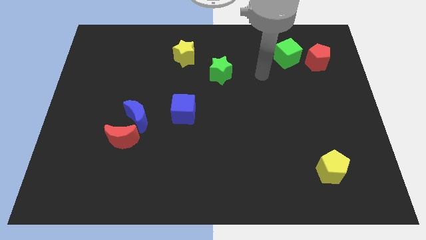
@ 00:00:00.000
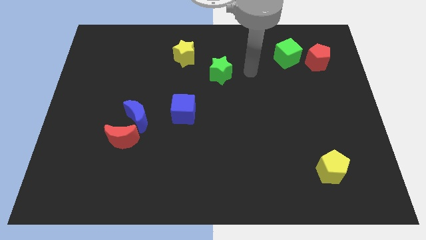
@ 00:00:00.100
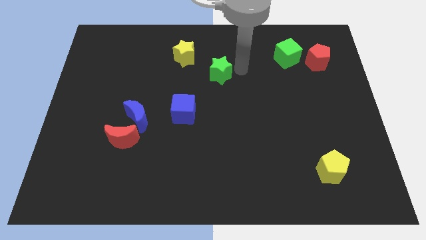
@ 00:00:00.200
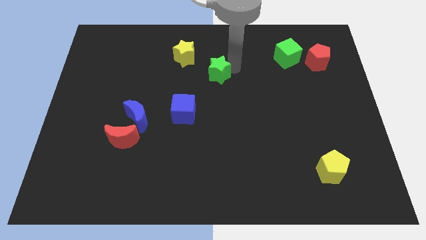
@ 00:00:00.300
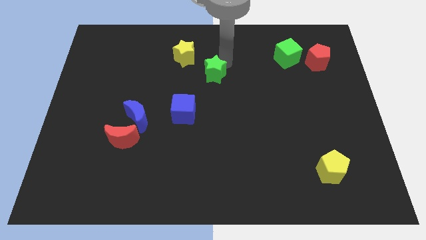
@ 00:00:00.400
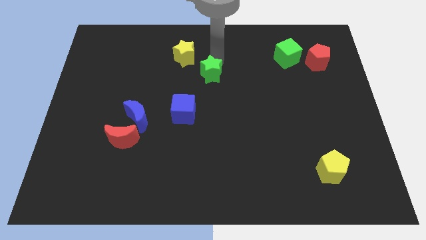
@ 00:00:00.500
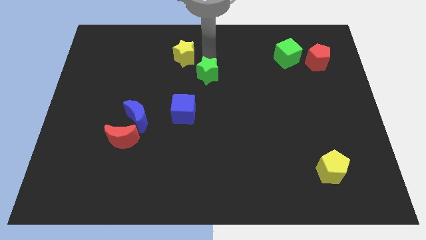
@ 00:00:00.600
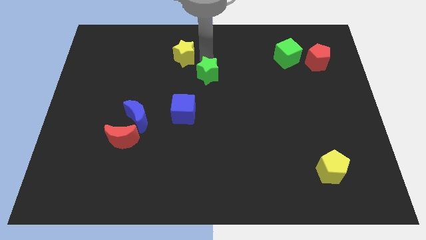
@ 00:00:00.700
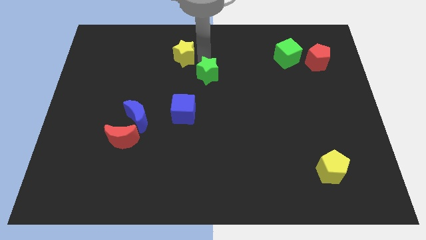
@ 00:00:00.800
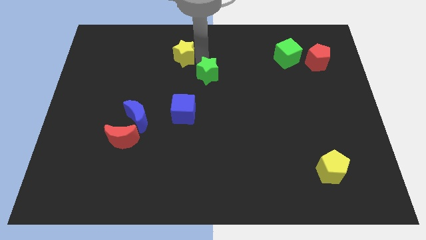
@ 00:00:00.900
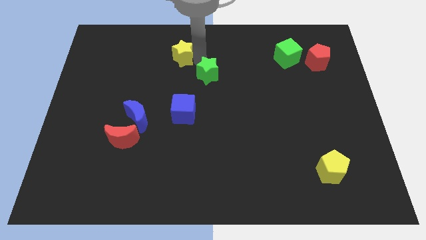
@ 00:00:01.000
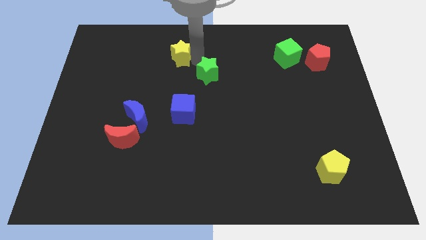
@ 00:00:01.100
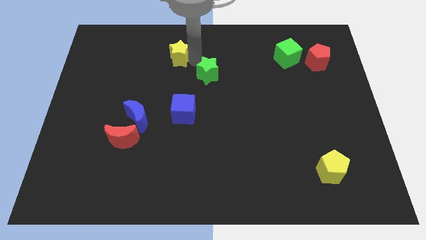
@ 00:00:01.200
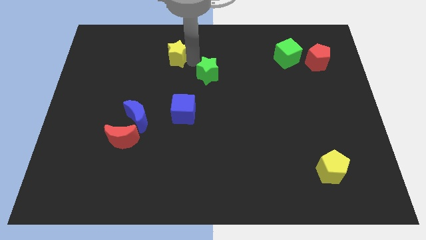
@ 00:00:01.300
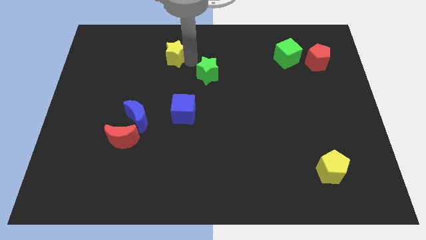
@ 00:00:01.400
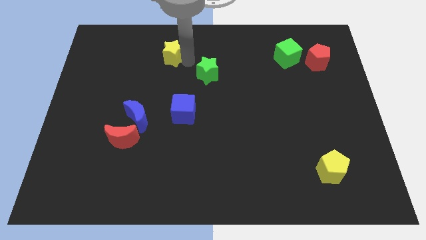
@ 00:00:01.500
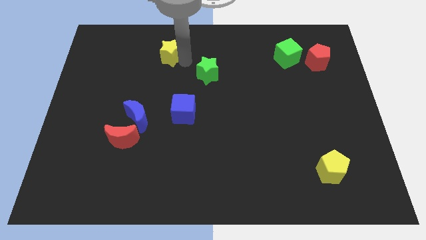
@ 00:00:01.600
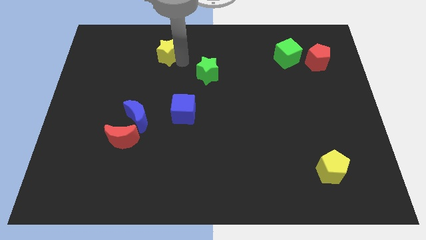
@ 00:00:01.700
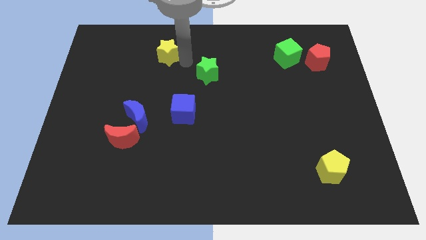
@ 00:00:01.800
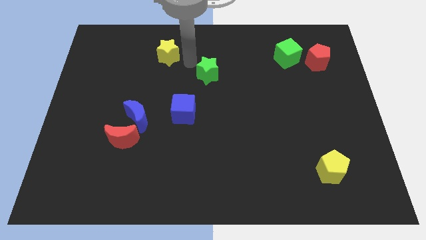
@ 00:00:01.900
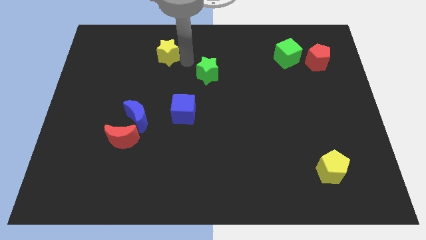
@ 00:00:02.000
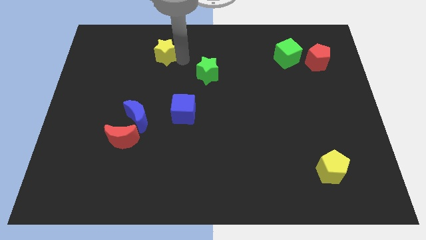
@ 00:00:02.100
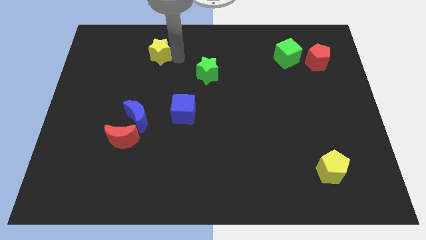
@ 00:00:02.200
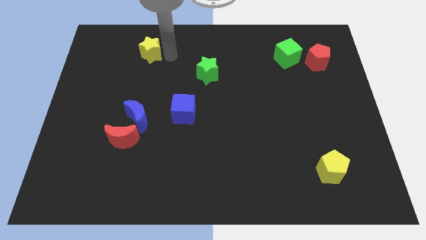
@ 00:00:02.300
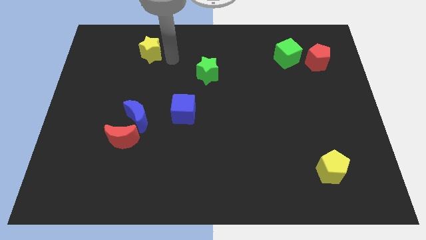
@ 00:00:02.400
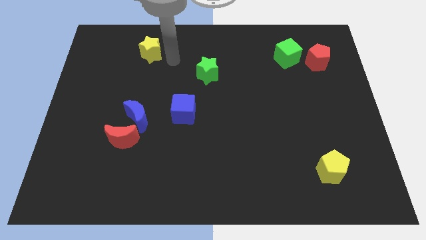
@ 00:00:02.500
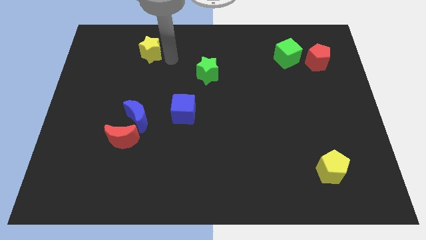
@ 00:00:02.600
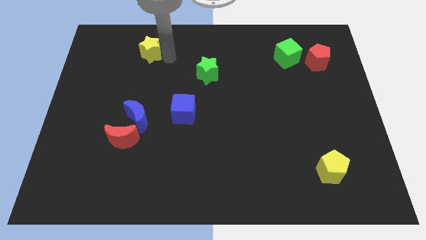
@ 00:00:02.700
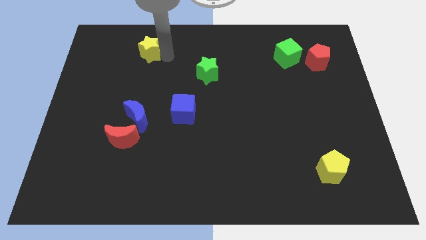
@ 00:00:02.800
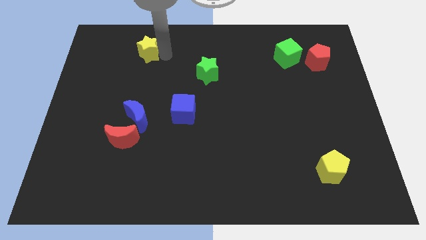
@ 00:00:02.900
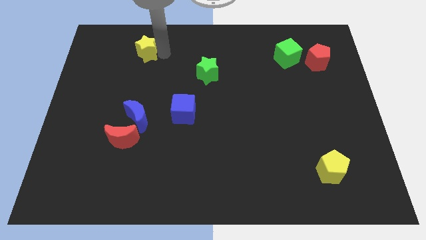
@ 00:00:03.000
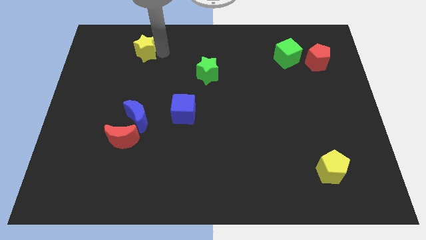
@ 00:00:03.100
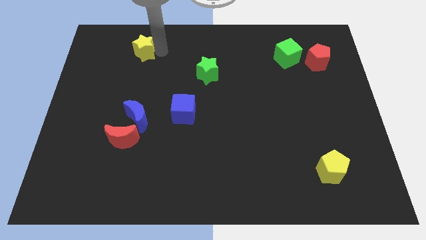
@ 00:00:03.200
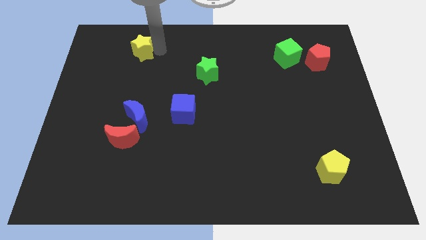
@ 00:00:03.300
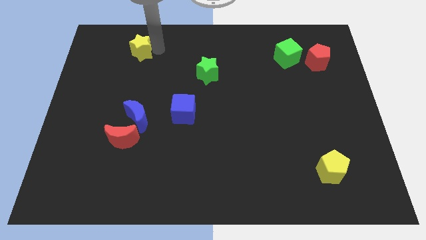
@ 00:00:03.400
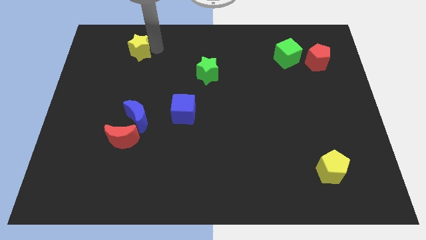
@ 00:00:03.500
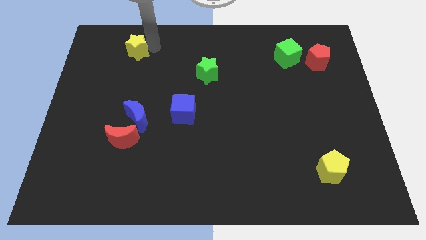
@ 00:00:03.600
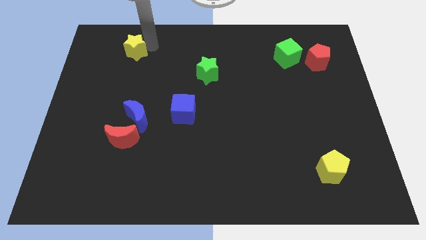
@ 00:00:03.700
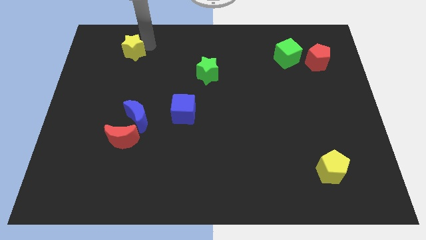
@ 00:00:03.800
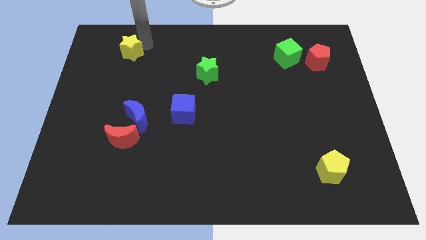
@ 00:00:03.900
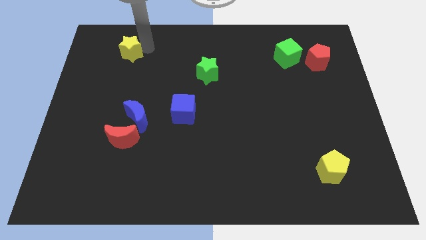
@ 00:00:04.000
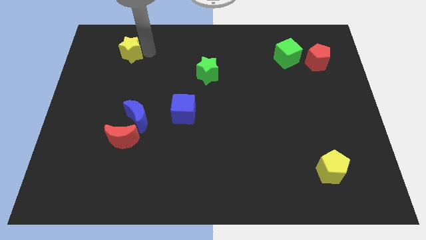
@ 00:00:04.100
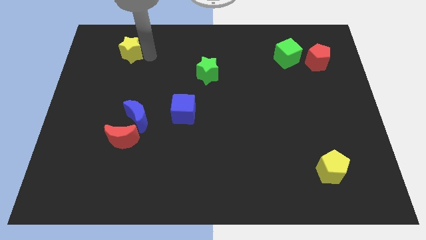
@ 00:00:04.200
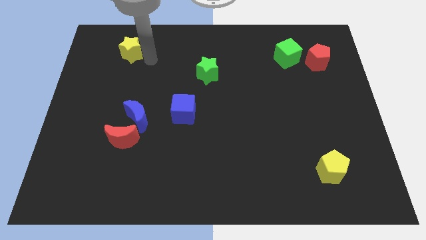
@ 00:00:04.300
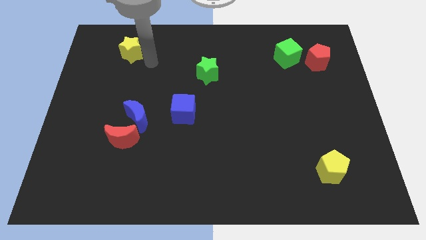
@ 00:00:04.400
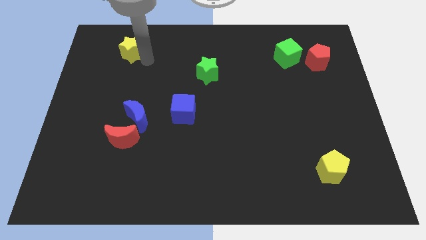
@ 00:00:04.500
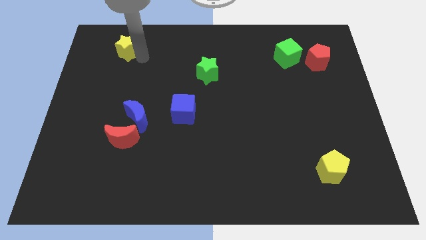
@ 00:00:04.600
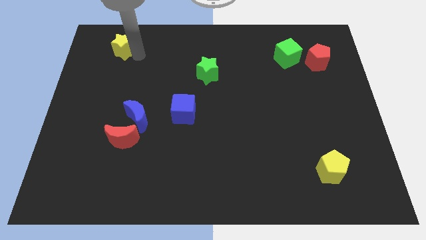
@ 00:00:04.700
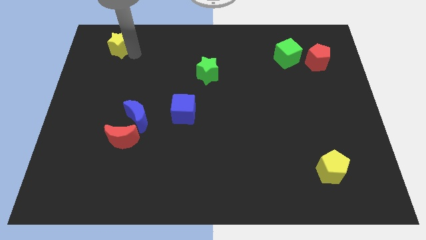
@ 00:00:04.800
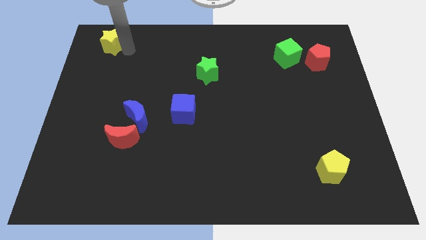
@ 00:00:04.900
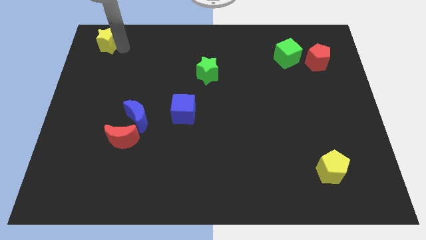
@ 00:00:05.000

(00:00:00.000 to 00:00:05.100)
put the yellow star to the top left of the board

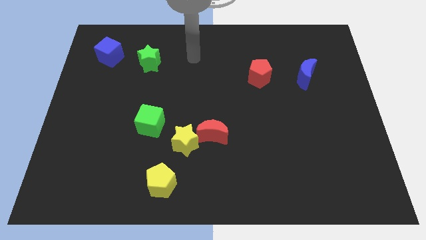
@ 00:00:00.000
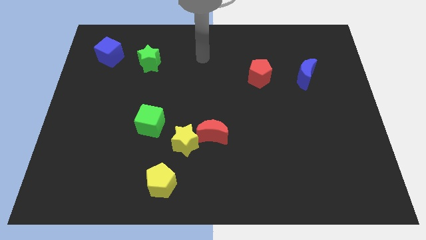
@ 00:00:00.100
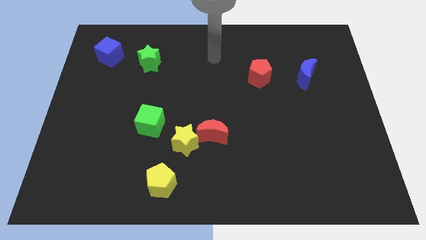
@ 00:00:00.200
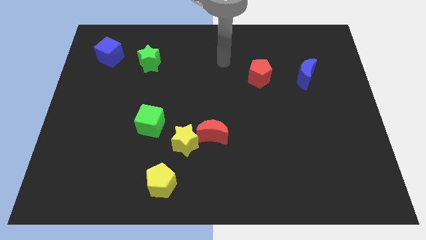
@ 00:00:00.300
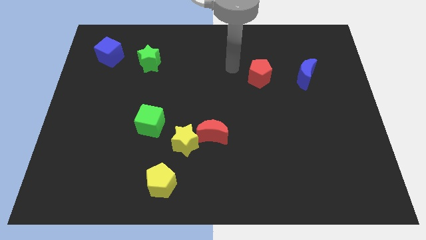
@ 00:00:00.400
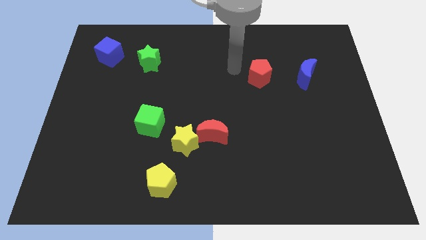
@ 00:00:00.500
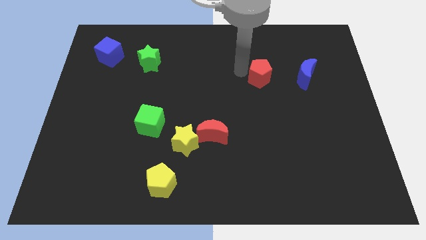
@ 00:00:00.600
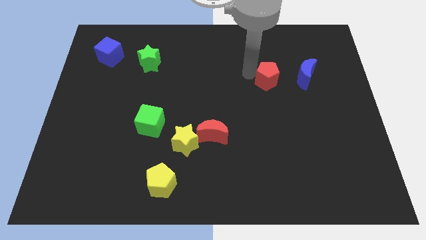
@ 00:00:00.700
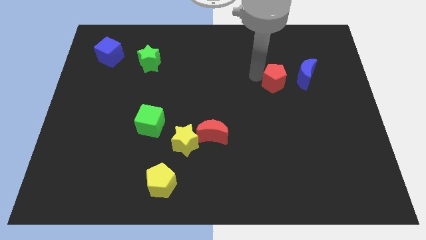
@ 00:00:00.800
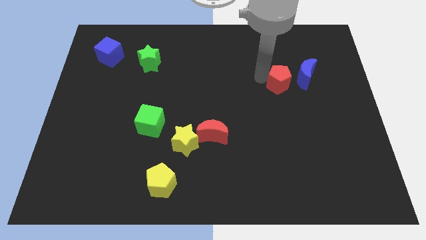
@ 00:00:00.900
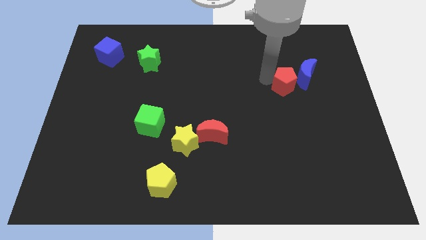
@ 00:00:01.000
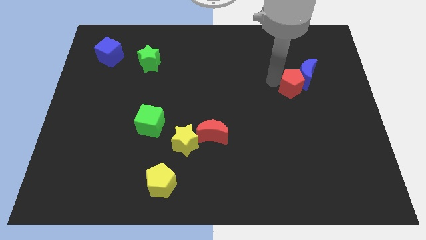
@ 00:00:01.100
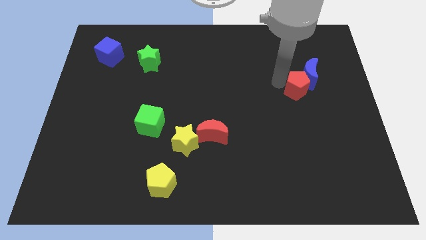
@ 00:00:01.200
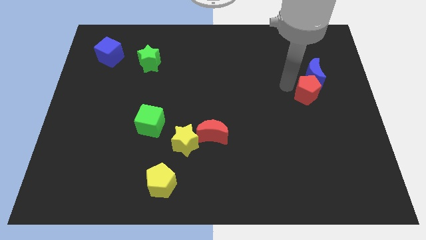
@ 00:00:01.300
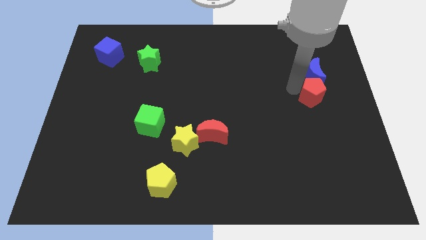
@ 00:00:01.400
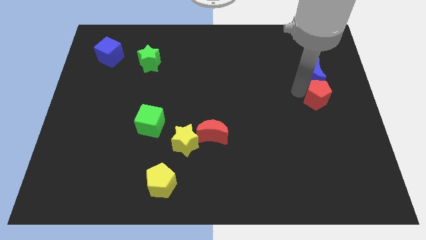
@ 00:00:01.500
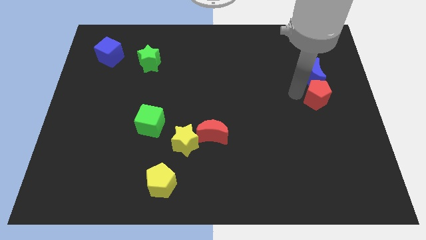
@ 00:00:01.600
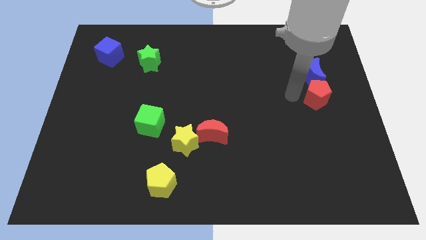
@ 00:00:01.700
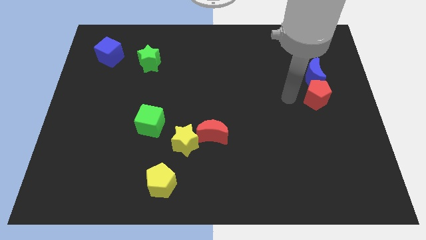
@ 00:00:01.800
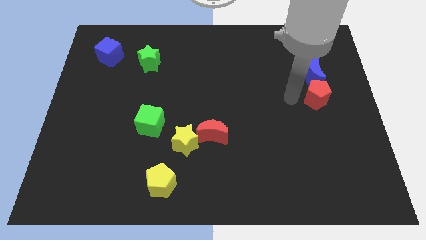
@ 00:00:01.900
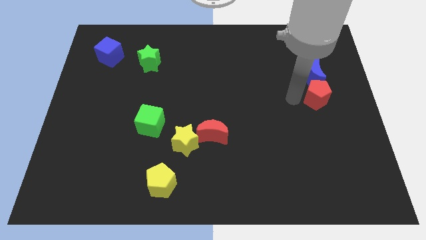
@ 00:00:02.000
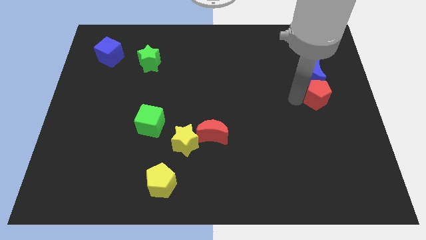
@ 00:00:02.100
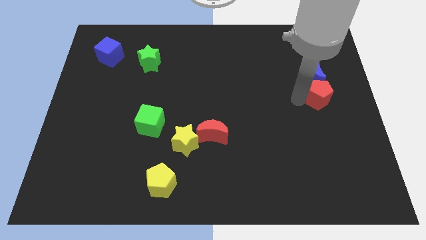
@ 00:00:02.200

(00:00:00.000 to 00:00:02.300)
slide the red pentagon to the right side
